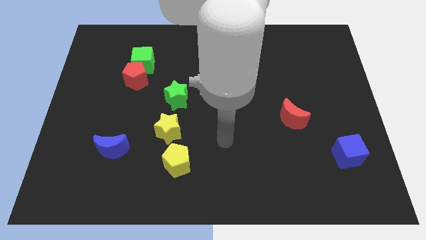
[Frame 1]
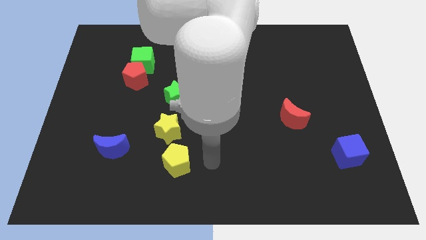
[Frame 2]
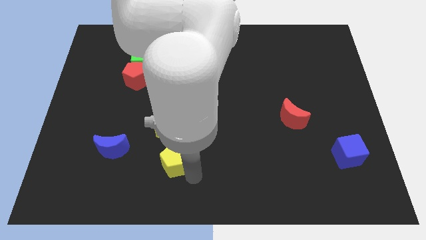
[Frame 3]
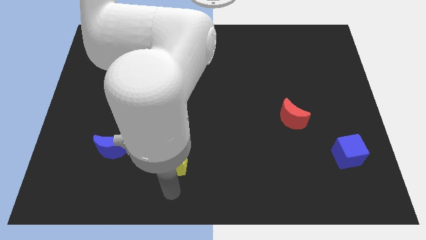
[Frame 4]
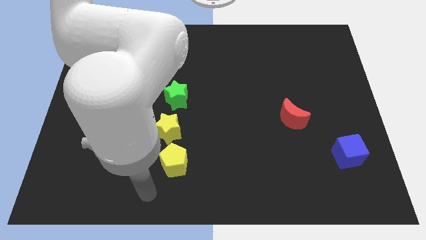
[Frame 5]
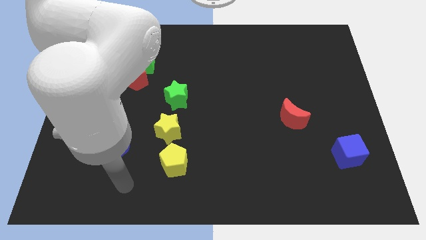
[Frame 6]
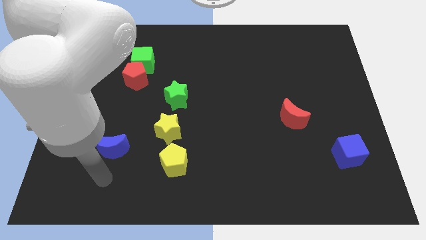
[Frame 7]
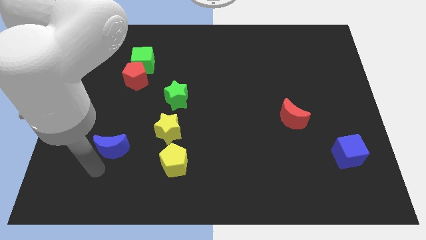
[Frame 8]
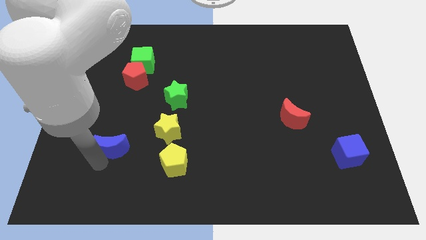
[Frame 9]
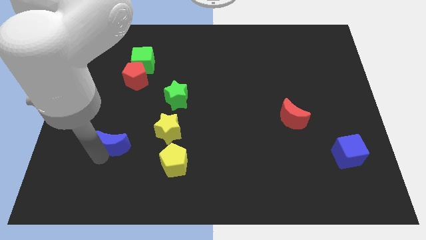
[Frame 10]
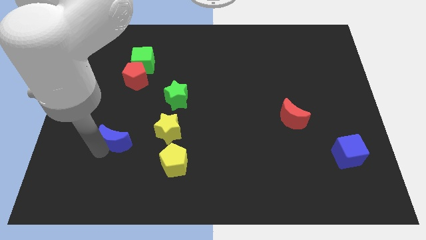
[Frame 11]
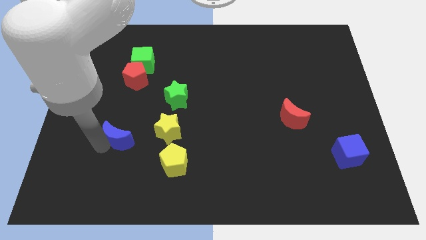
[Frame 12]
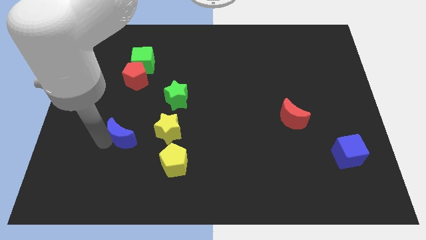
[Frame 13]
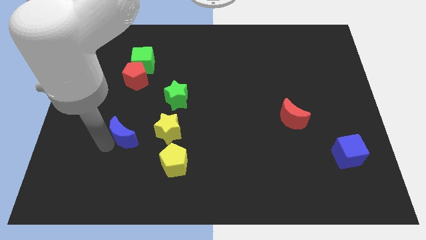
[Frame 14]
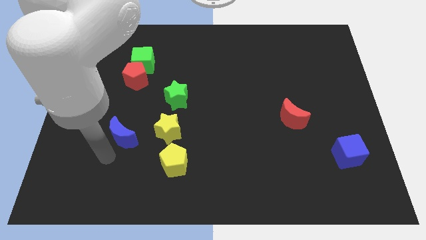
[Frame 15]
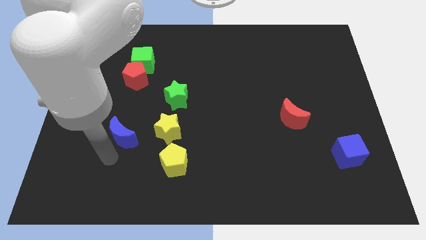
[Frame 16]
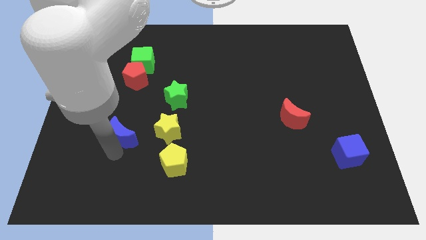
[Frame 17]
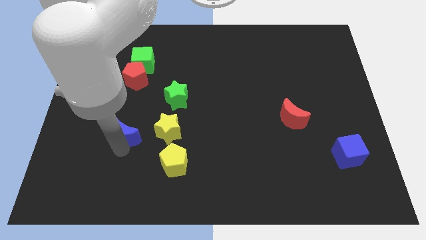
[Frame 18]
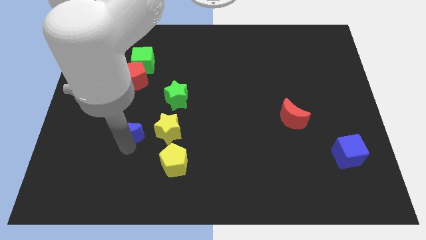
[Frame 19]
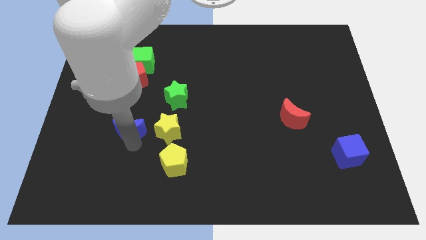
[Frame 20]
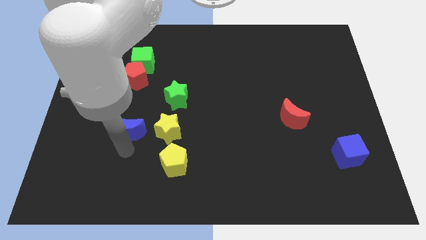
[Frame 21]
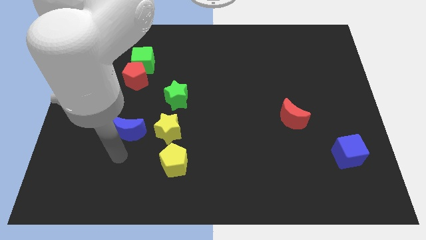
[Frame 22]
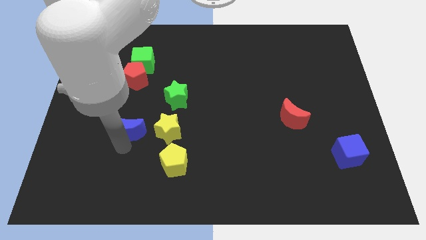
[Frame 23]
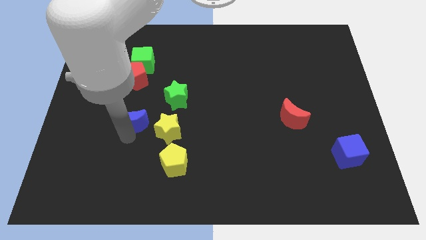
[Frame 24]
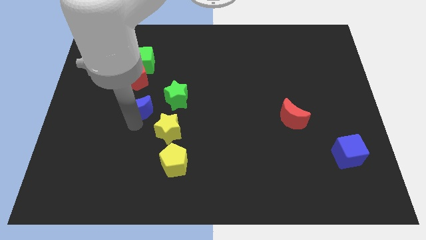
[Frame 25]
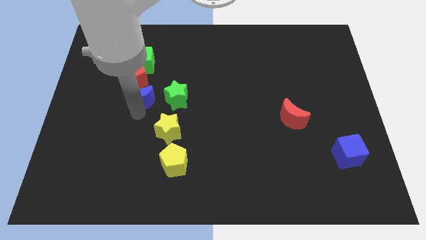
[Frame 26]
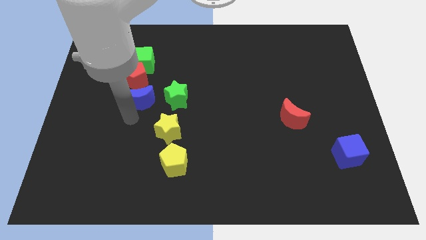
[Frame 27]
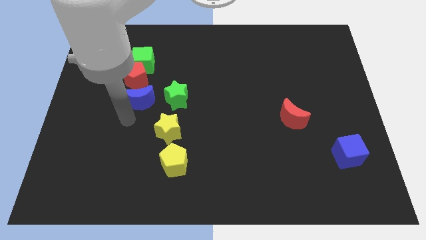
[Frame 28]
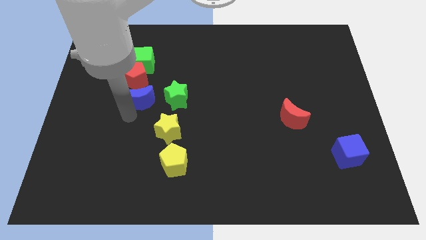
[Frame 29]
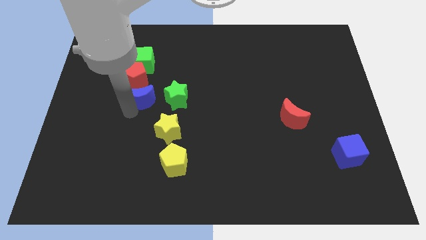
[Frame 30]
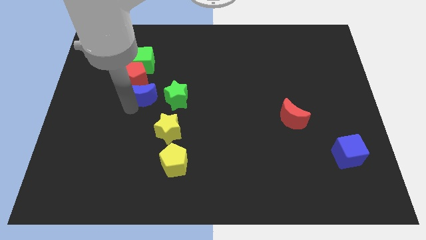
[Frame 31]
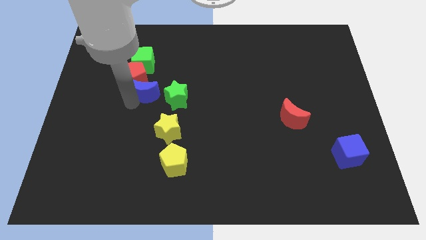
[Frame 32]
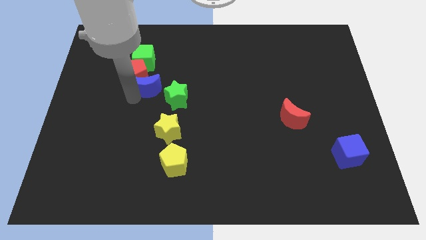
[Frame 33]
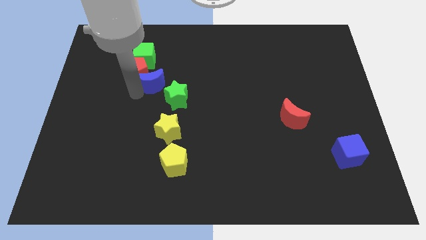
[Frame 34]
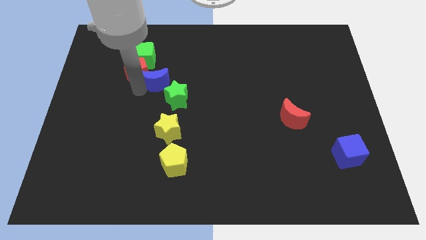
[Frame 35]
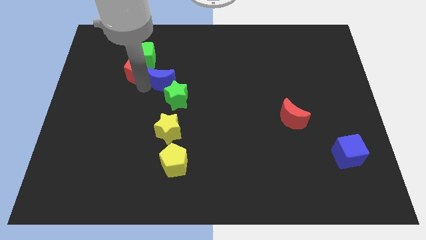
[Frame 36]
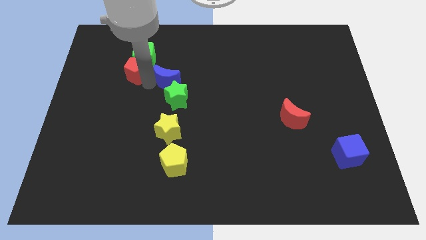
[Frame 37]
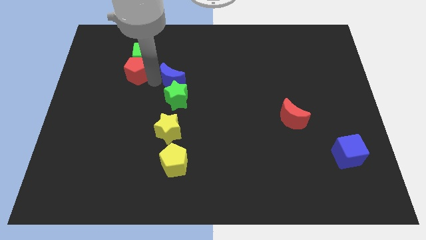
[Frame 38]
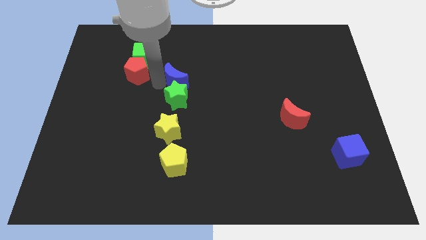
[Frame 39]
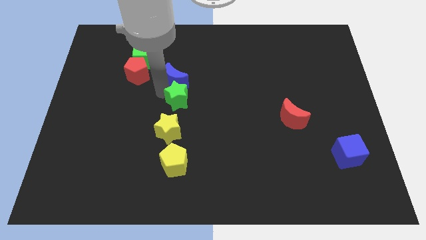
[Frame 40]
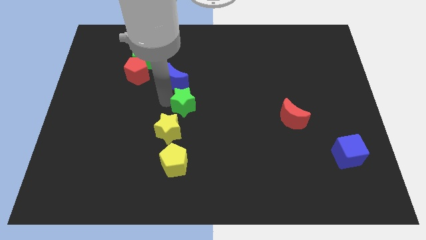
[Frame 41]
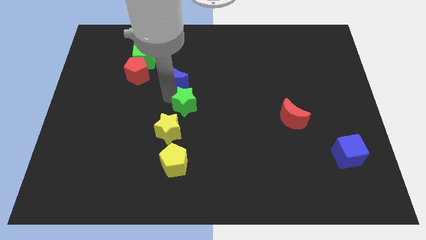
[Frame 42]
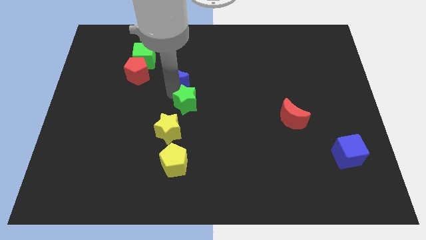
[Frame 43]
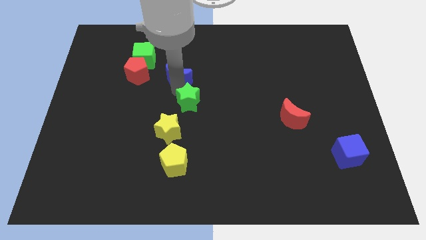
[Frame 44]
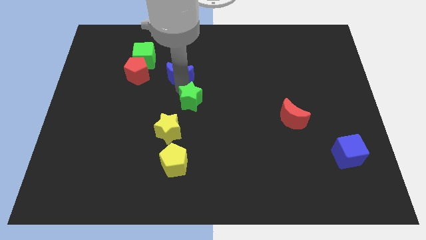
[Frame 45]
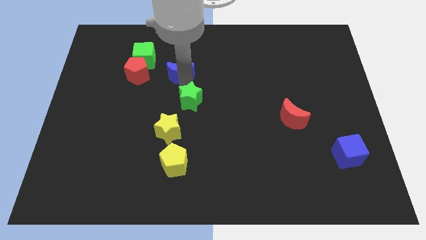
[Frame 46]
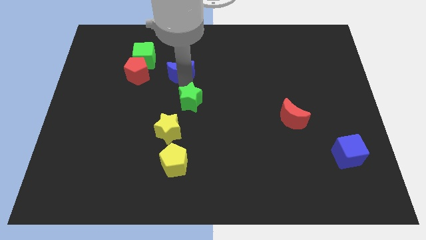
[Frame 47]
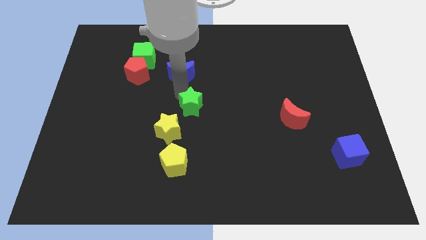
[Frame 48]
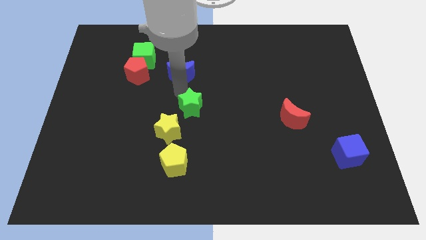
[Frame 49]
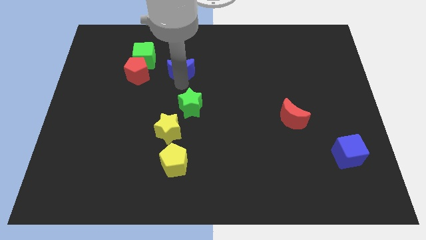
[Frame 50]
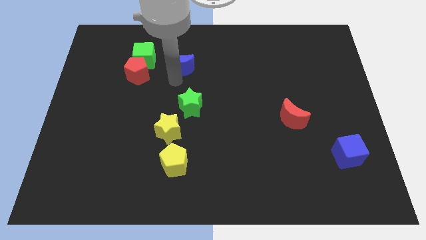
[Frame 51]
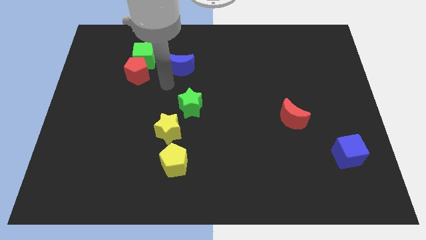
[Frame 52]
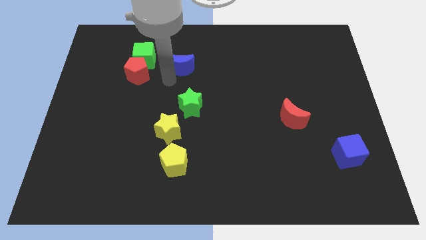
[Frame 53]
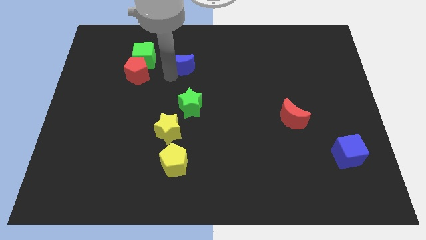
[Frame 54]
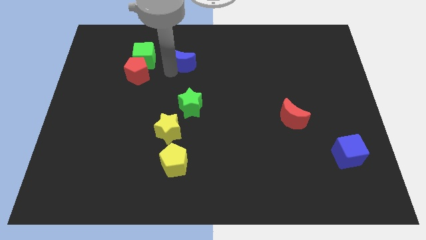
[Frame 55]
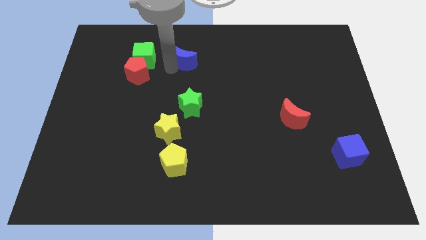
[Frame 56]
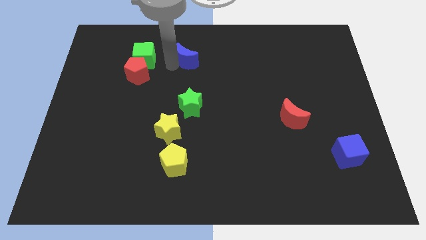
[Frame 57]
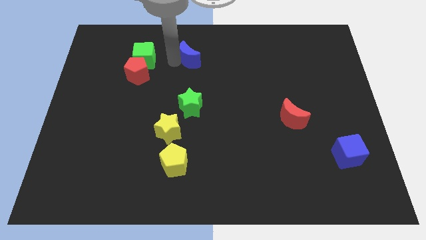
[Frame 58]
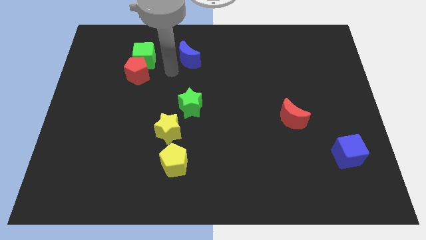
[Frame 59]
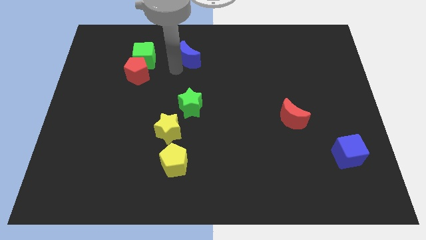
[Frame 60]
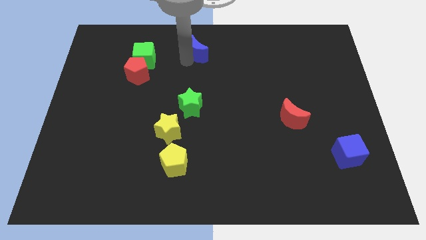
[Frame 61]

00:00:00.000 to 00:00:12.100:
put the blue moon to the top side
